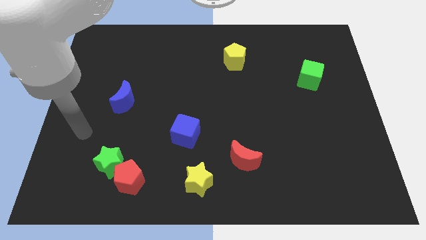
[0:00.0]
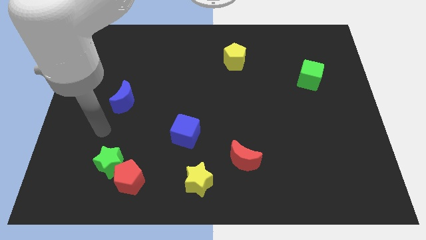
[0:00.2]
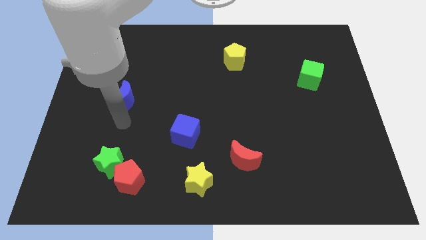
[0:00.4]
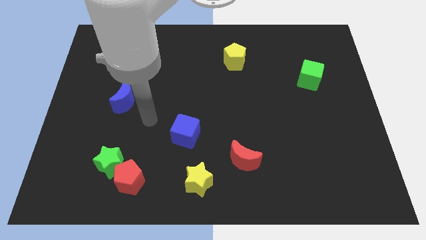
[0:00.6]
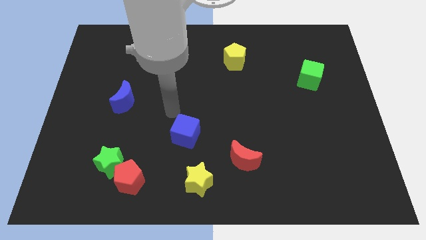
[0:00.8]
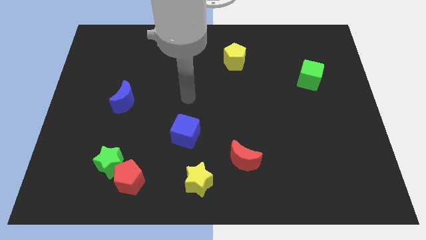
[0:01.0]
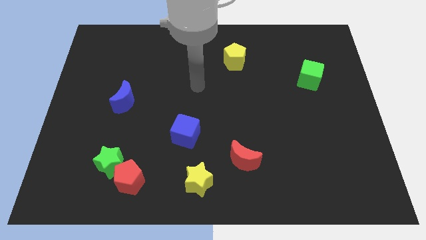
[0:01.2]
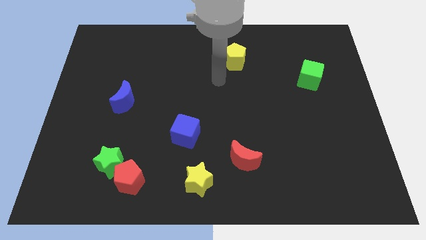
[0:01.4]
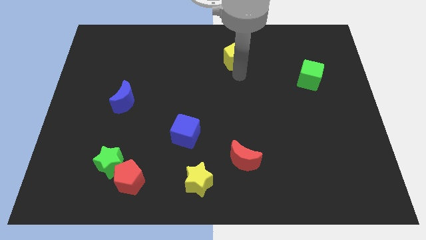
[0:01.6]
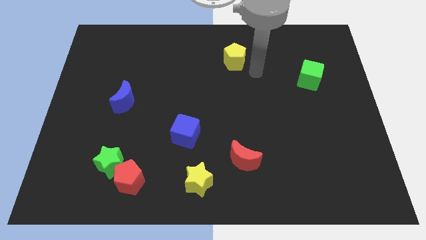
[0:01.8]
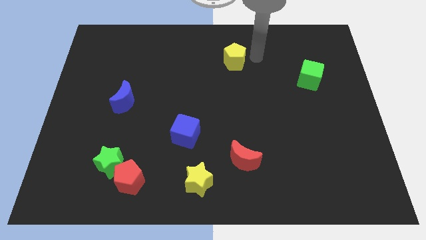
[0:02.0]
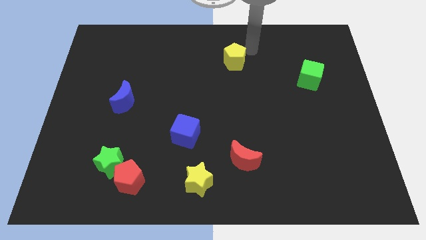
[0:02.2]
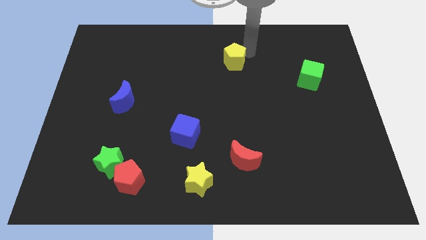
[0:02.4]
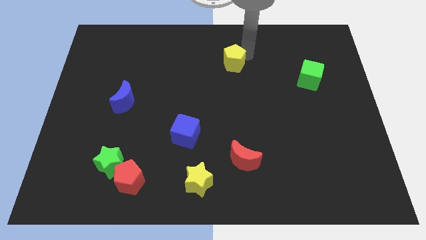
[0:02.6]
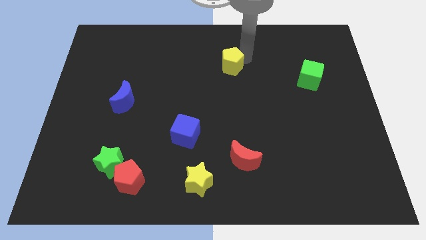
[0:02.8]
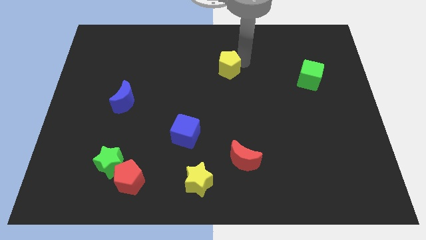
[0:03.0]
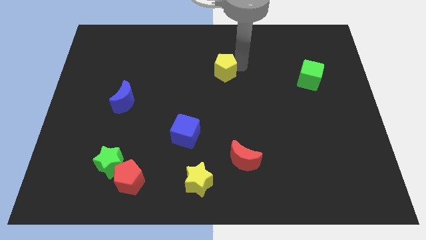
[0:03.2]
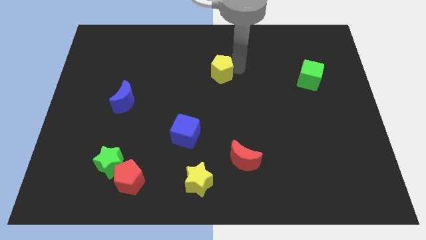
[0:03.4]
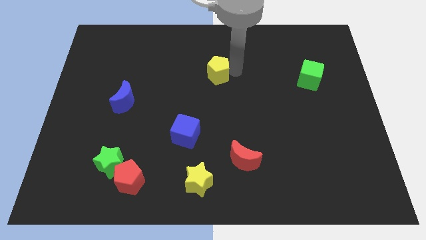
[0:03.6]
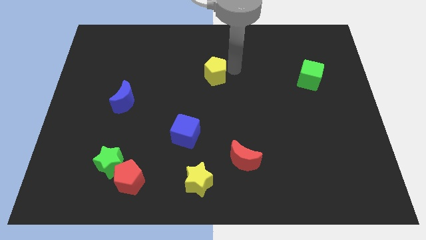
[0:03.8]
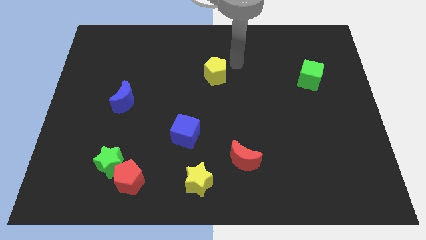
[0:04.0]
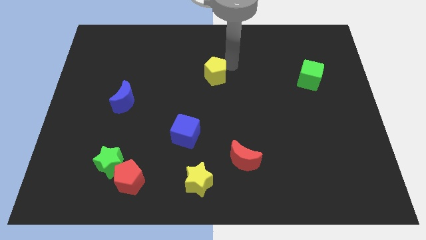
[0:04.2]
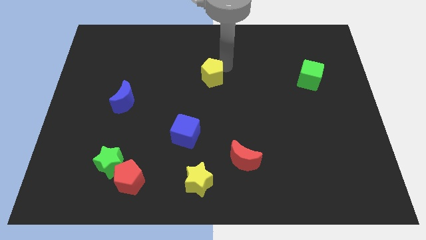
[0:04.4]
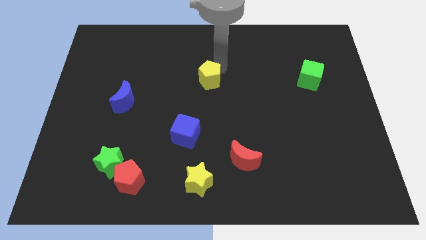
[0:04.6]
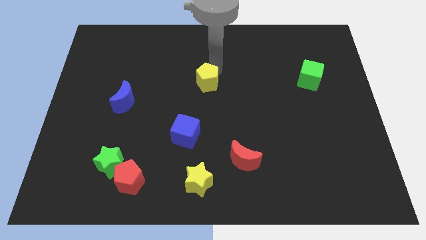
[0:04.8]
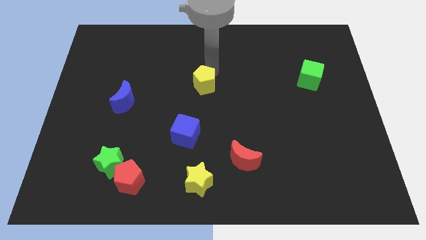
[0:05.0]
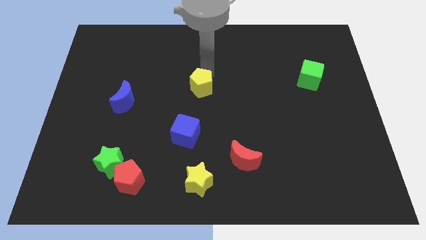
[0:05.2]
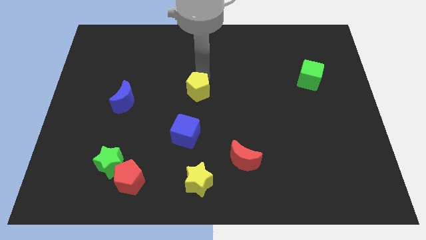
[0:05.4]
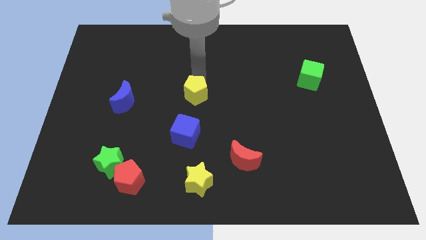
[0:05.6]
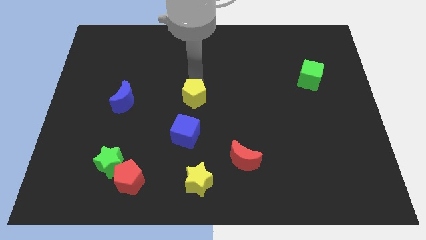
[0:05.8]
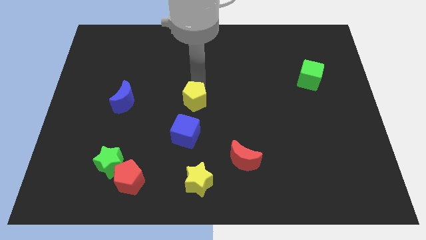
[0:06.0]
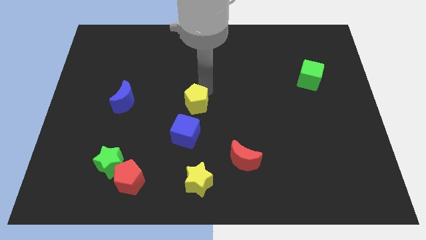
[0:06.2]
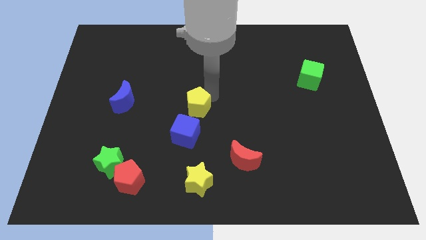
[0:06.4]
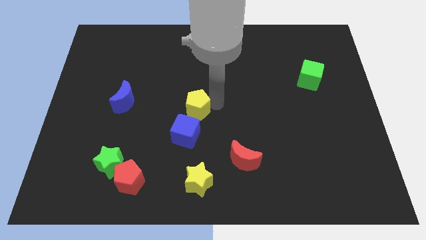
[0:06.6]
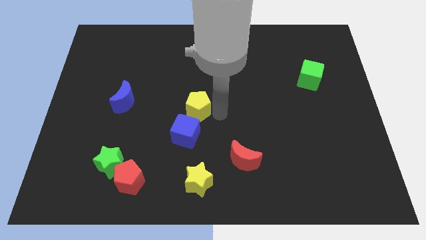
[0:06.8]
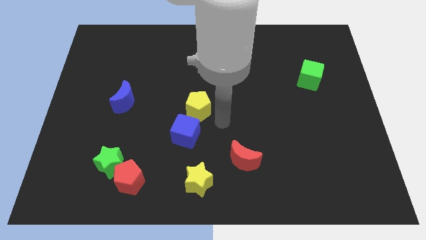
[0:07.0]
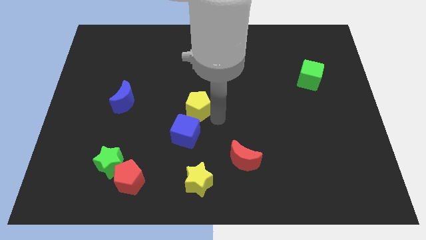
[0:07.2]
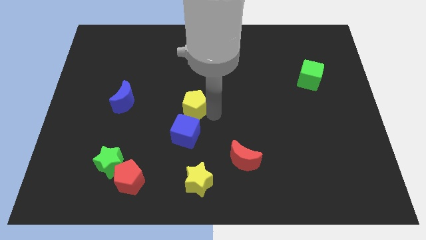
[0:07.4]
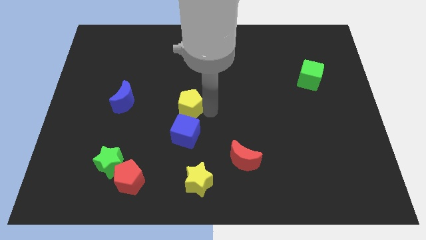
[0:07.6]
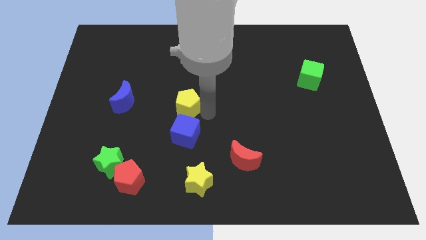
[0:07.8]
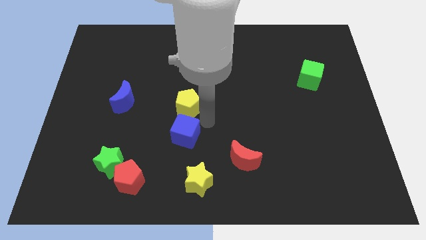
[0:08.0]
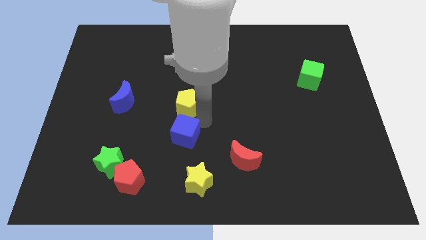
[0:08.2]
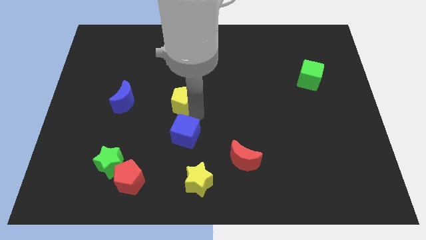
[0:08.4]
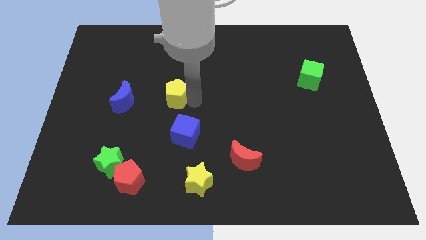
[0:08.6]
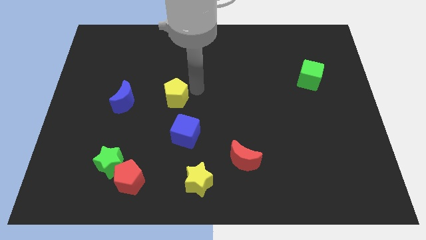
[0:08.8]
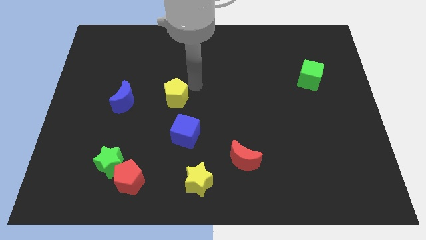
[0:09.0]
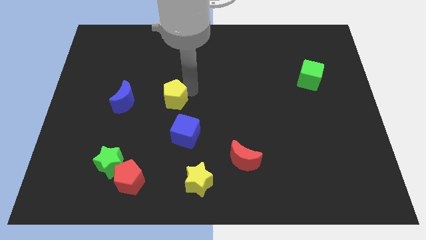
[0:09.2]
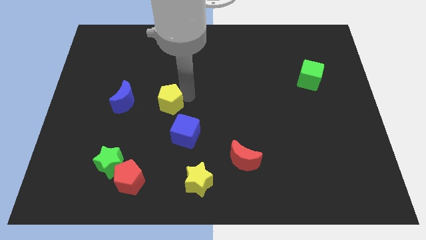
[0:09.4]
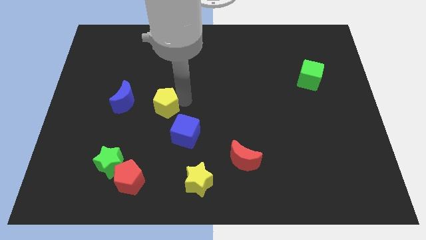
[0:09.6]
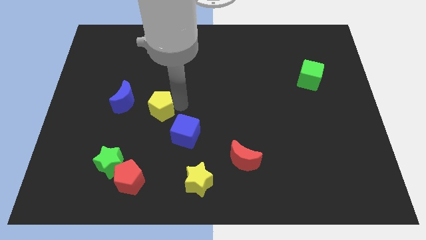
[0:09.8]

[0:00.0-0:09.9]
move the yellow pentagon to the bottom right of the blue moon

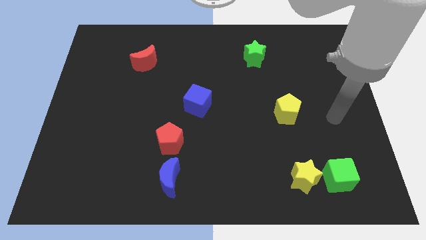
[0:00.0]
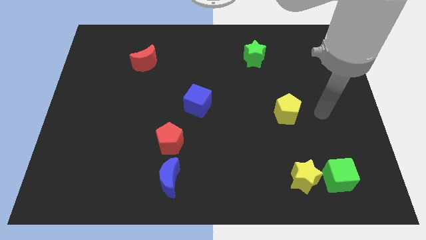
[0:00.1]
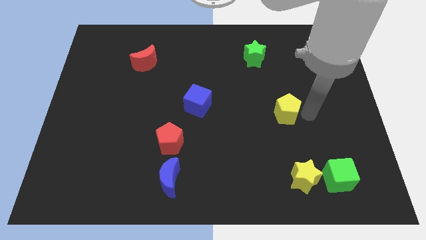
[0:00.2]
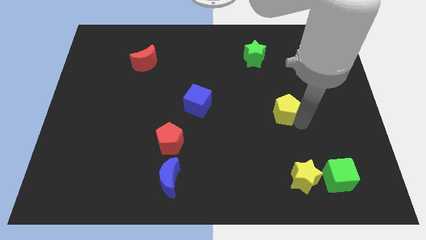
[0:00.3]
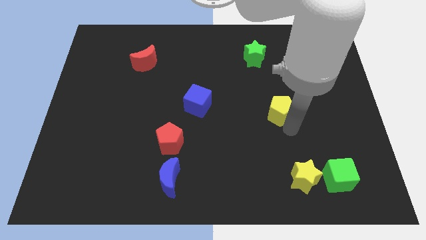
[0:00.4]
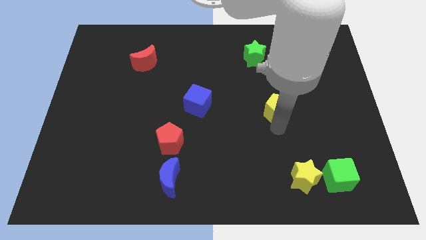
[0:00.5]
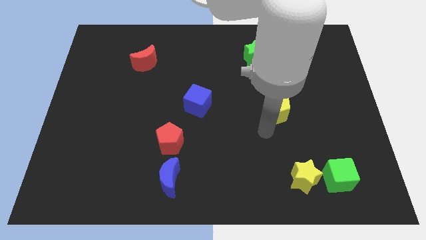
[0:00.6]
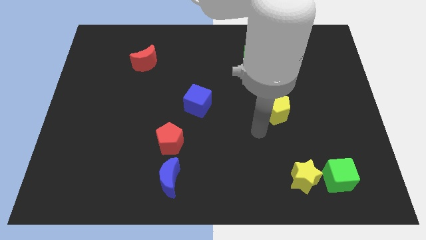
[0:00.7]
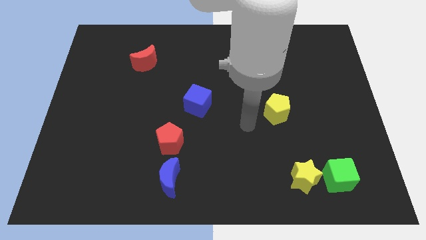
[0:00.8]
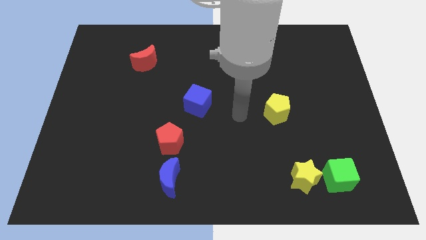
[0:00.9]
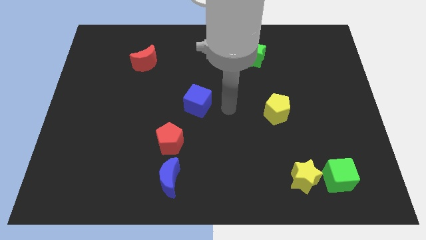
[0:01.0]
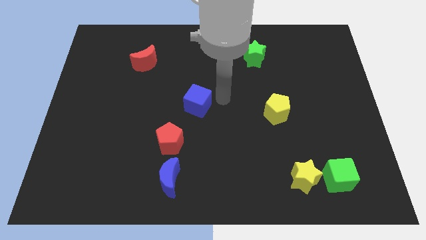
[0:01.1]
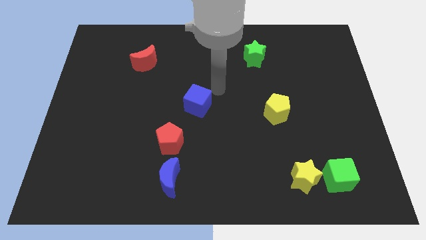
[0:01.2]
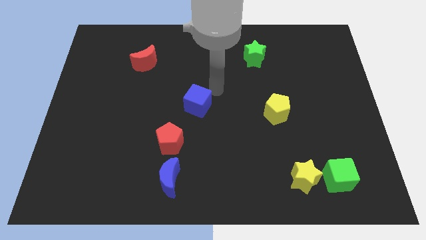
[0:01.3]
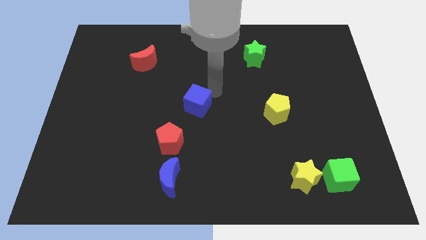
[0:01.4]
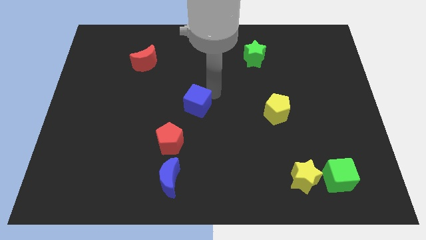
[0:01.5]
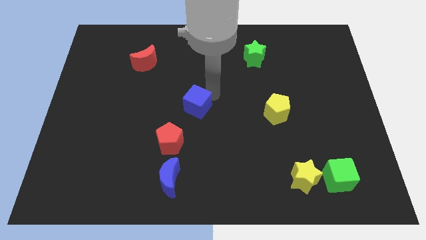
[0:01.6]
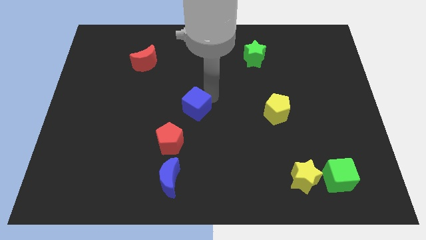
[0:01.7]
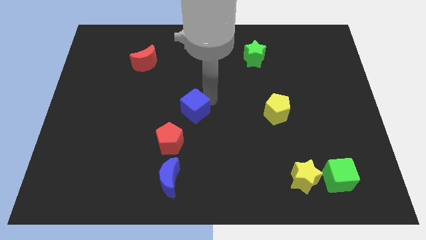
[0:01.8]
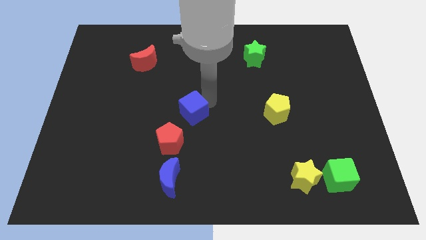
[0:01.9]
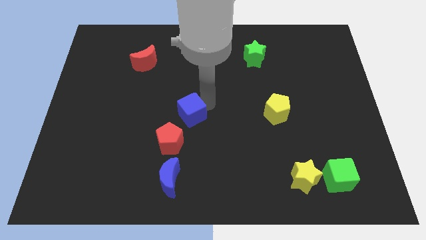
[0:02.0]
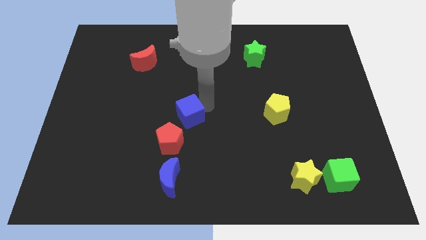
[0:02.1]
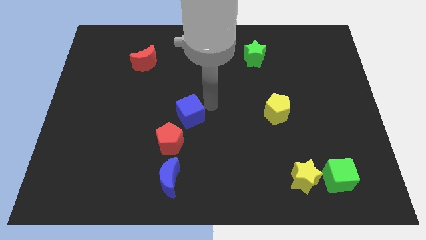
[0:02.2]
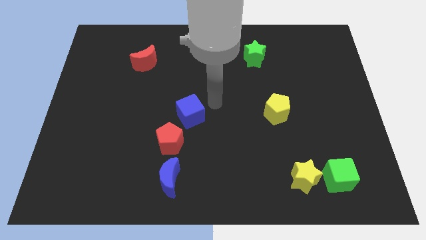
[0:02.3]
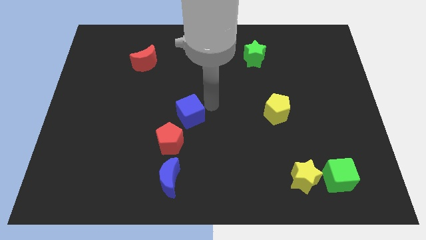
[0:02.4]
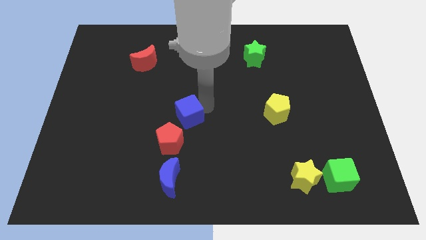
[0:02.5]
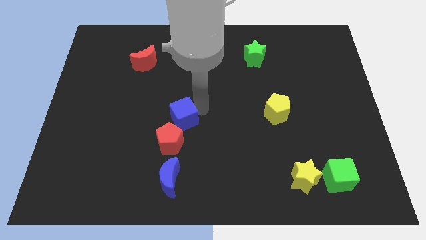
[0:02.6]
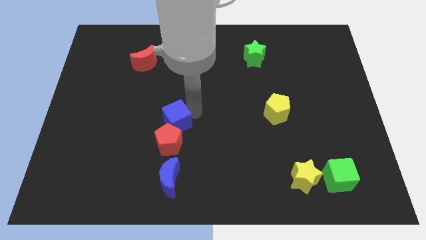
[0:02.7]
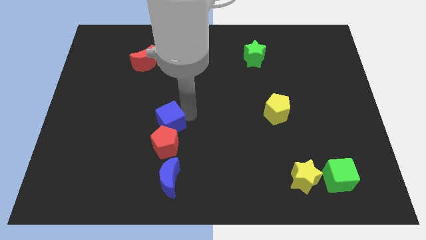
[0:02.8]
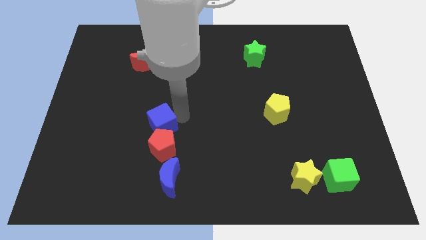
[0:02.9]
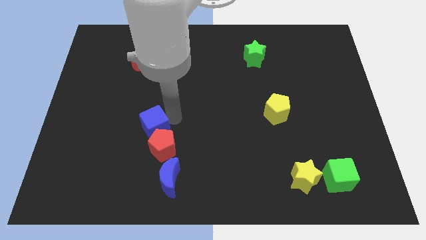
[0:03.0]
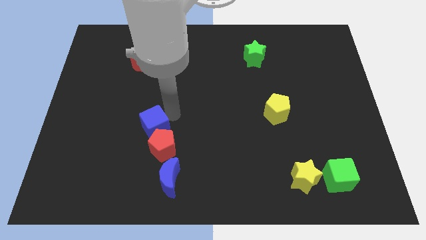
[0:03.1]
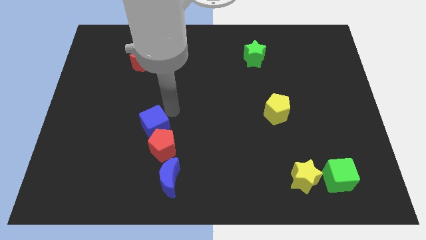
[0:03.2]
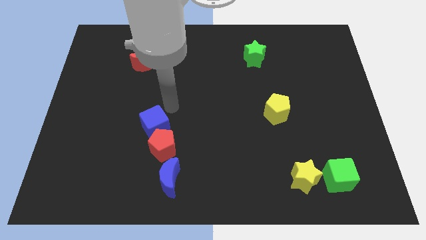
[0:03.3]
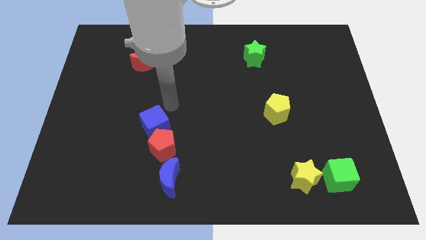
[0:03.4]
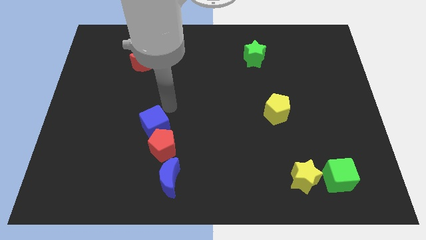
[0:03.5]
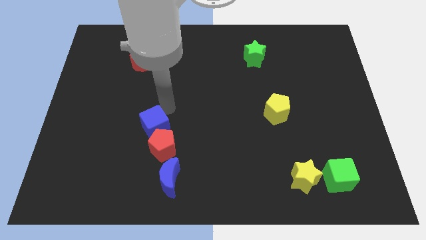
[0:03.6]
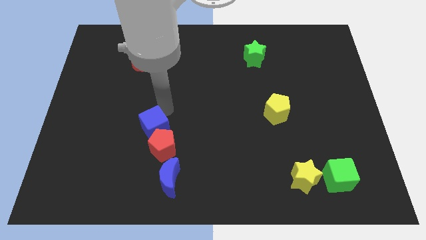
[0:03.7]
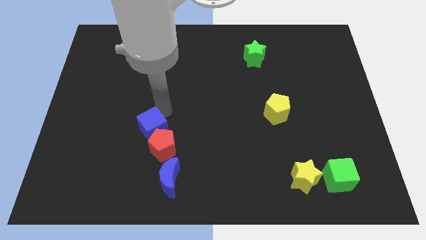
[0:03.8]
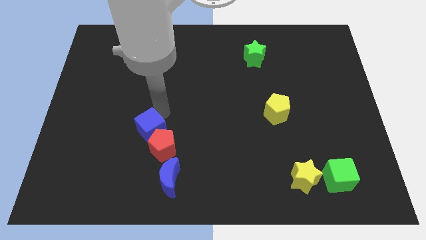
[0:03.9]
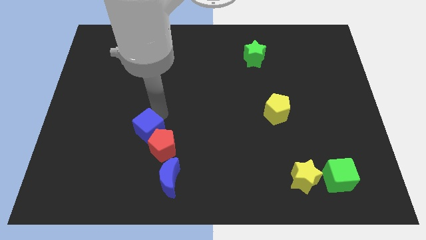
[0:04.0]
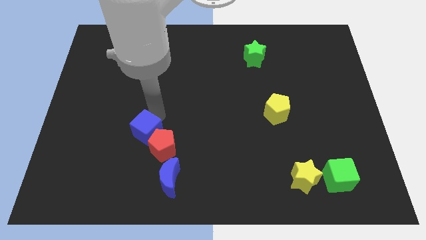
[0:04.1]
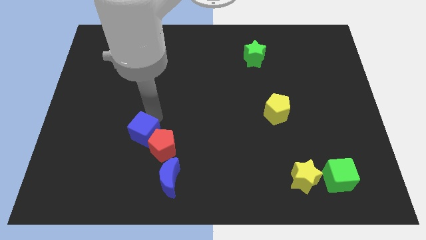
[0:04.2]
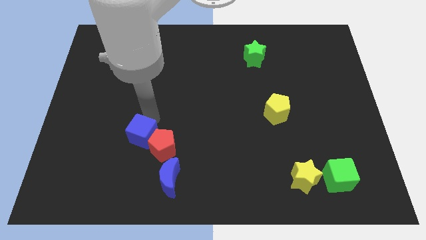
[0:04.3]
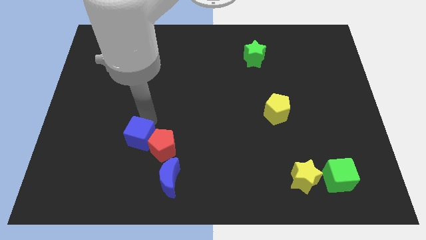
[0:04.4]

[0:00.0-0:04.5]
put the blue cube to the top left of the blue moon
